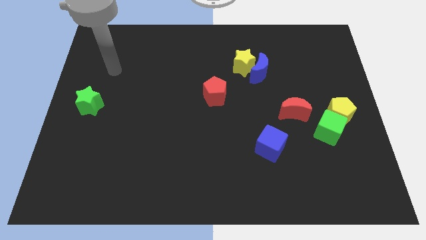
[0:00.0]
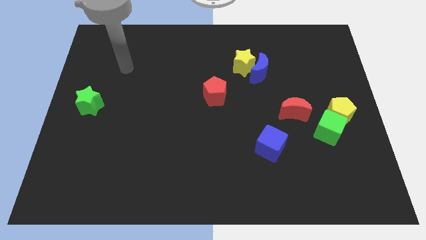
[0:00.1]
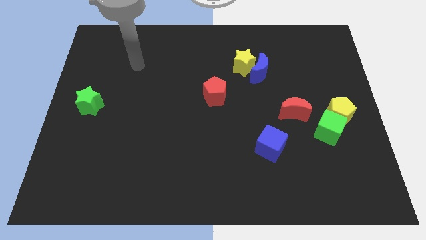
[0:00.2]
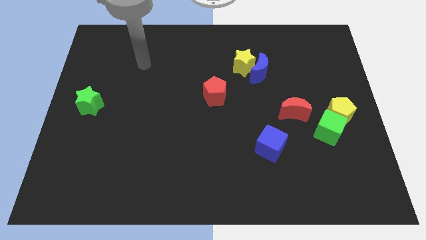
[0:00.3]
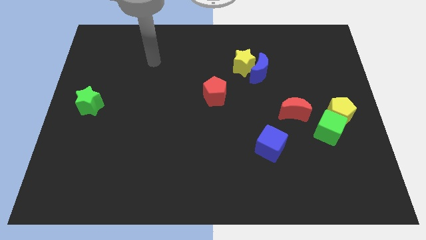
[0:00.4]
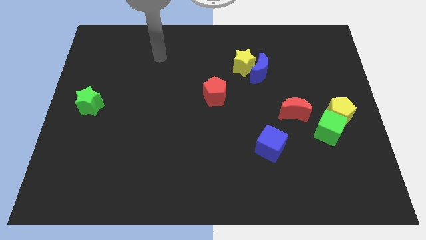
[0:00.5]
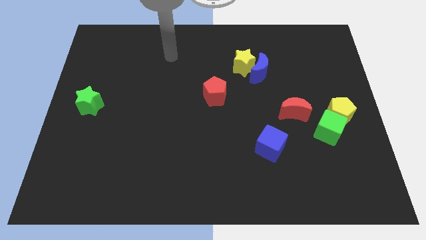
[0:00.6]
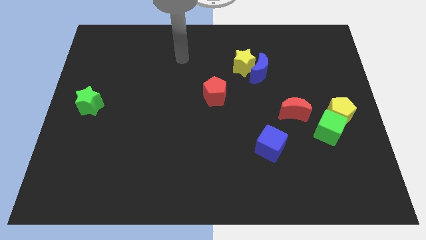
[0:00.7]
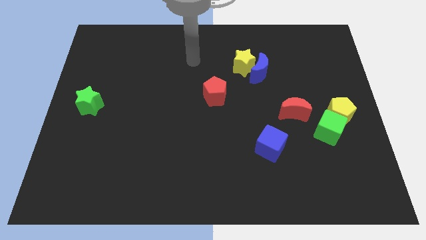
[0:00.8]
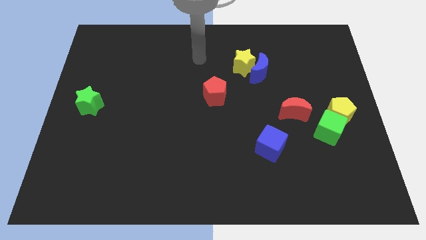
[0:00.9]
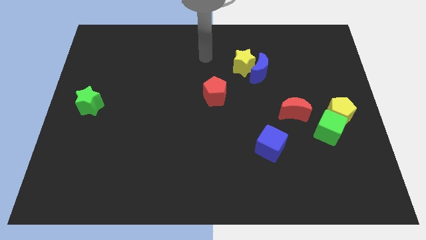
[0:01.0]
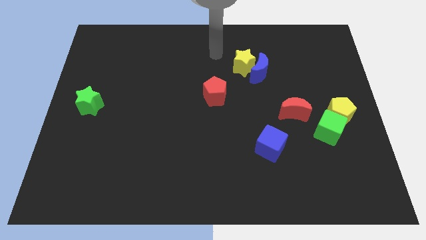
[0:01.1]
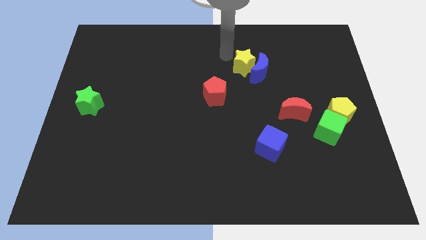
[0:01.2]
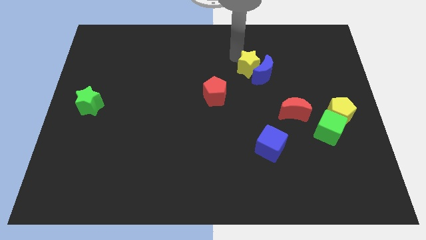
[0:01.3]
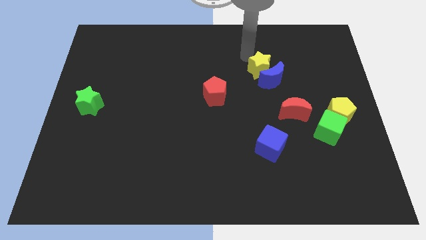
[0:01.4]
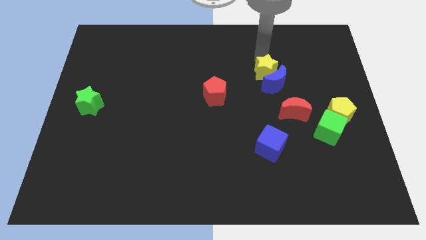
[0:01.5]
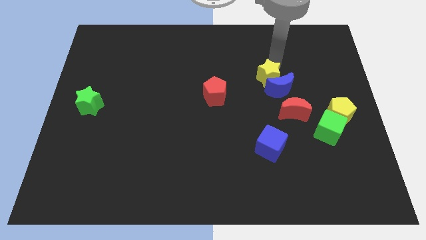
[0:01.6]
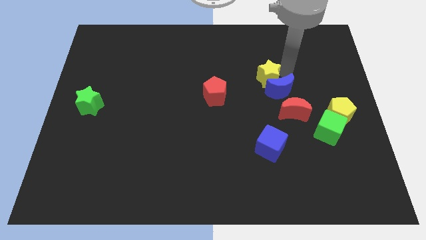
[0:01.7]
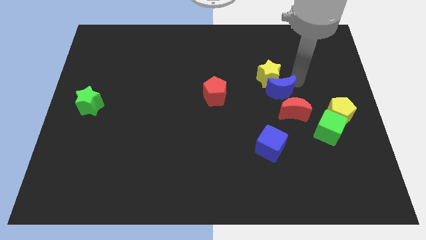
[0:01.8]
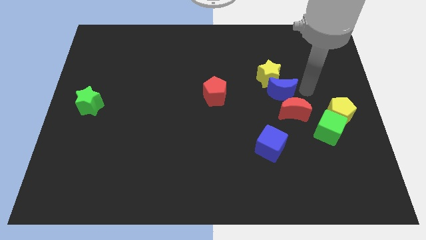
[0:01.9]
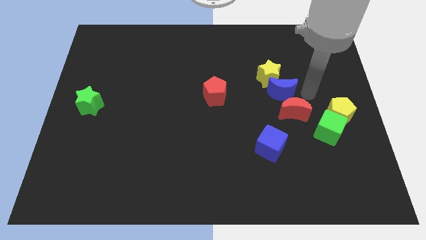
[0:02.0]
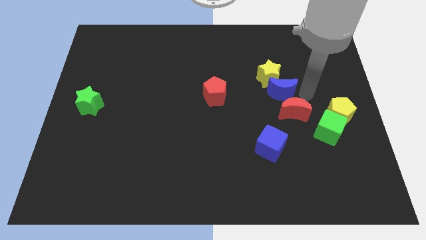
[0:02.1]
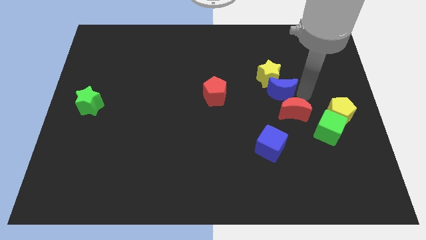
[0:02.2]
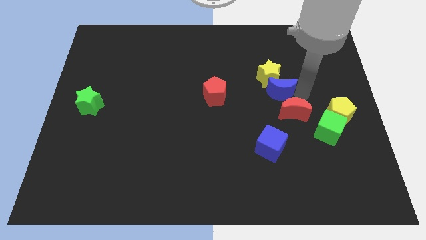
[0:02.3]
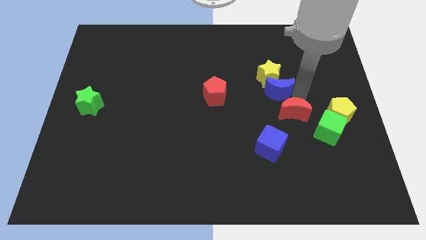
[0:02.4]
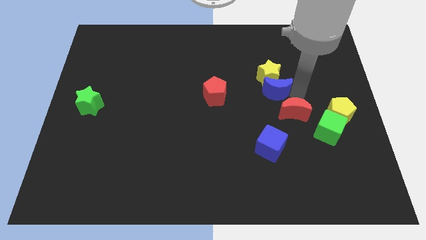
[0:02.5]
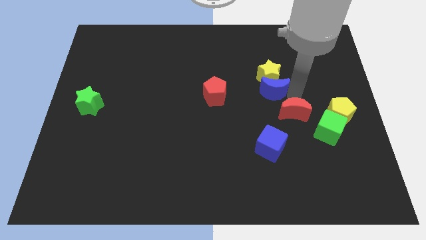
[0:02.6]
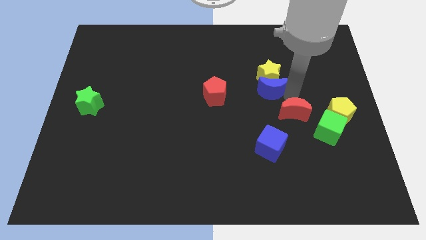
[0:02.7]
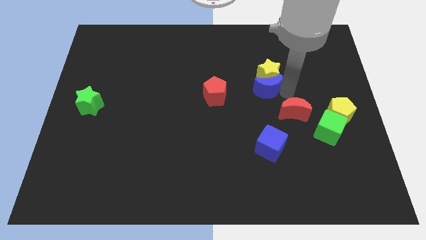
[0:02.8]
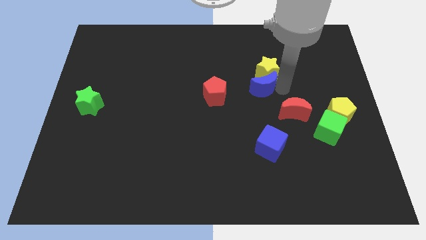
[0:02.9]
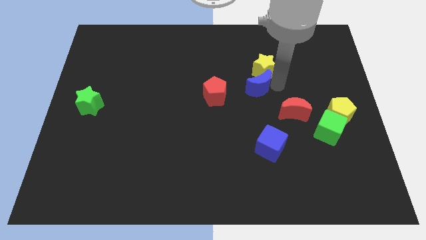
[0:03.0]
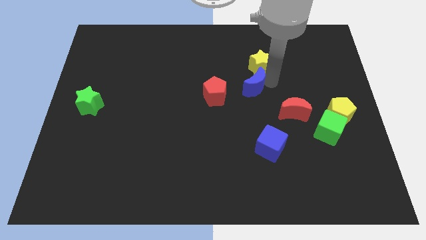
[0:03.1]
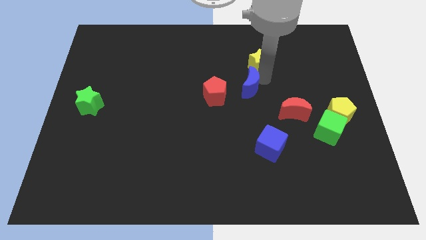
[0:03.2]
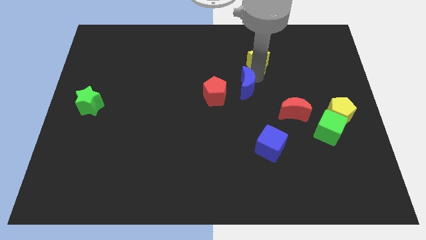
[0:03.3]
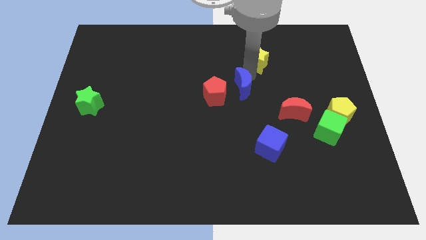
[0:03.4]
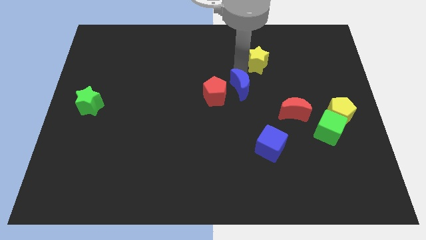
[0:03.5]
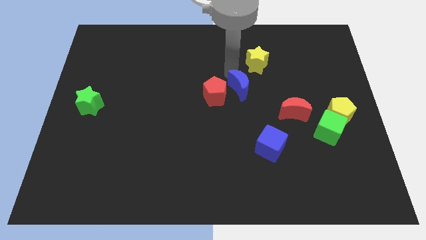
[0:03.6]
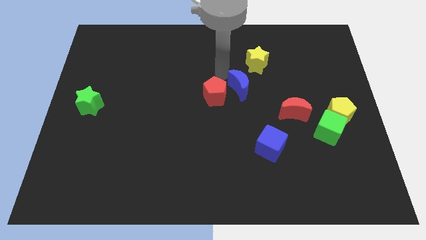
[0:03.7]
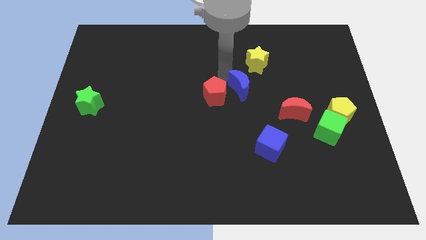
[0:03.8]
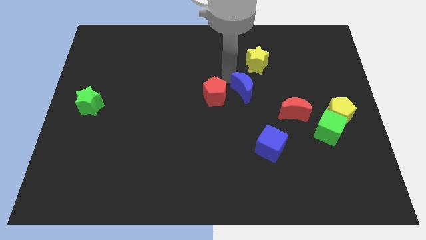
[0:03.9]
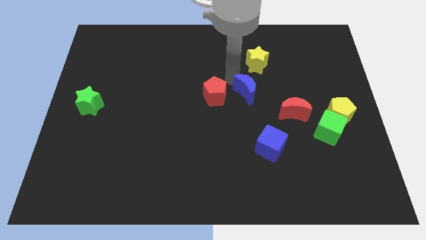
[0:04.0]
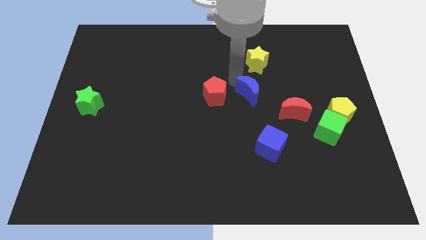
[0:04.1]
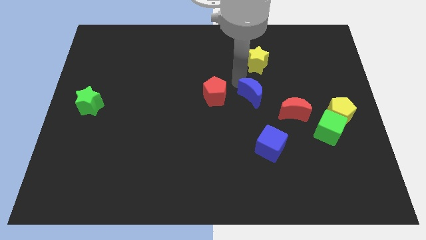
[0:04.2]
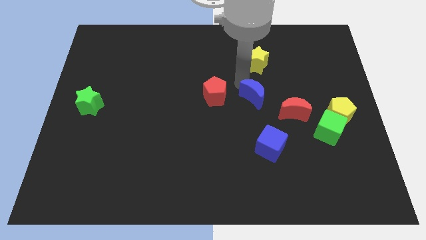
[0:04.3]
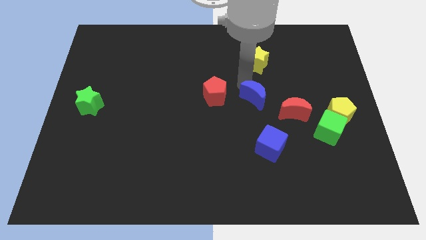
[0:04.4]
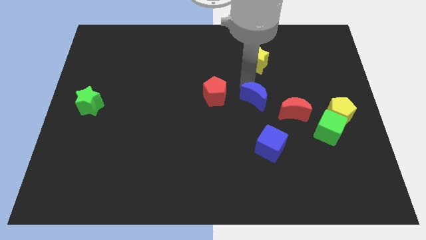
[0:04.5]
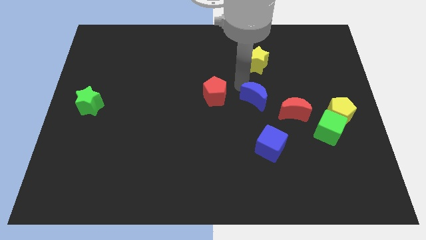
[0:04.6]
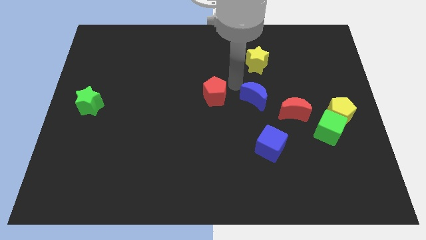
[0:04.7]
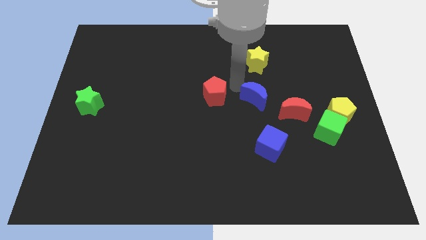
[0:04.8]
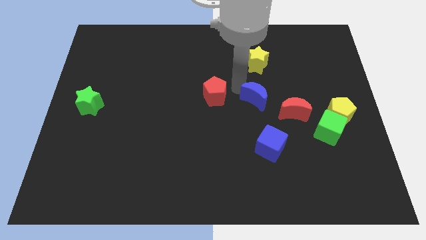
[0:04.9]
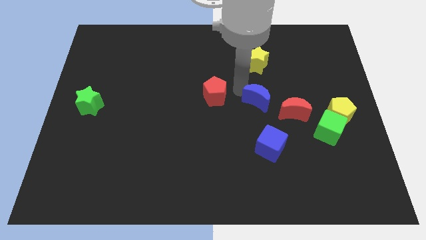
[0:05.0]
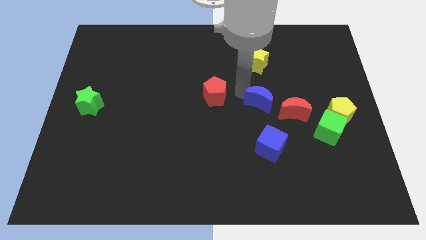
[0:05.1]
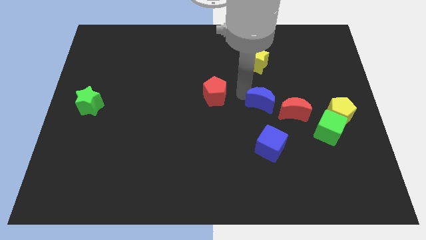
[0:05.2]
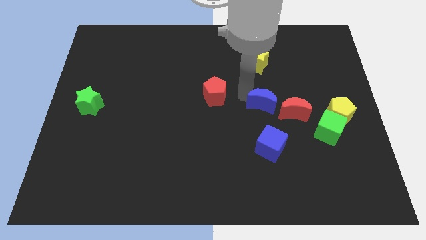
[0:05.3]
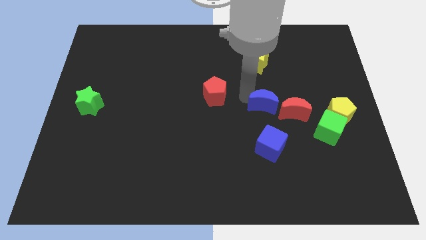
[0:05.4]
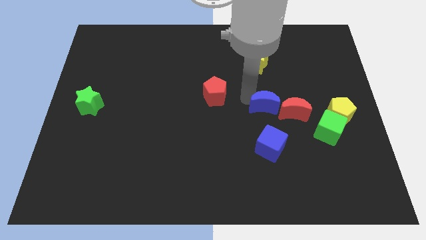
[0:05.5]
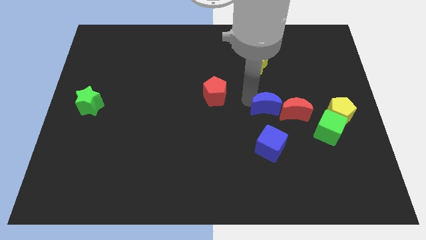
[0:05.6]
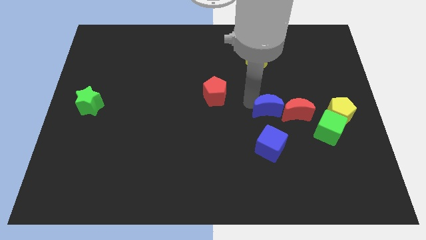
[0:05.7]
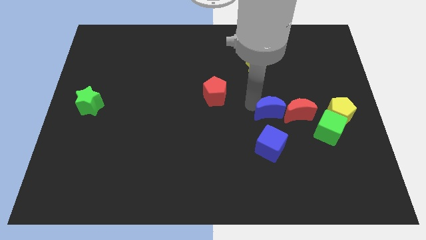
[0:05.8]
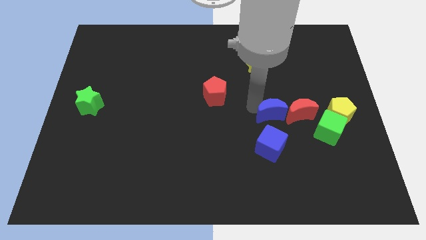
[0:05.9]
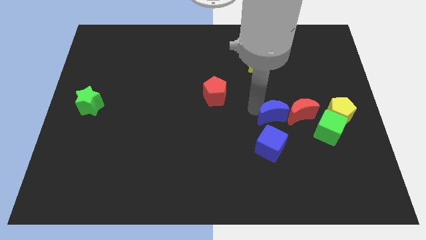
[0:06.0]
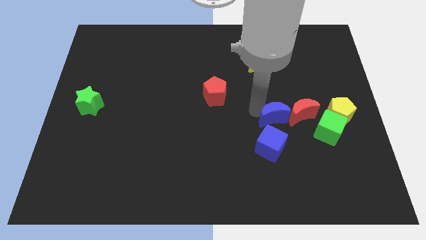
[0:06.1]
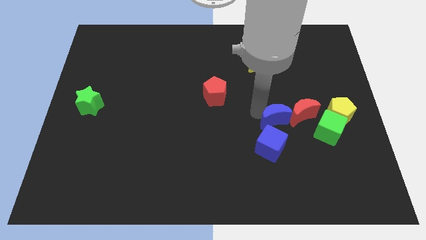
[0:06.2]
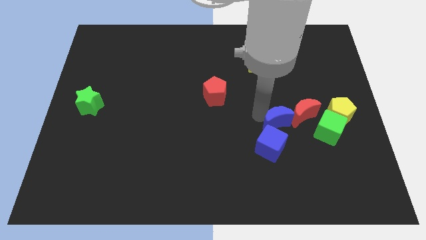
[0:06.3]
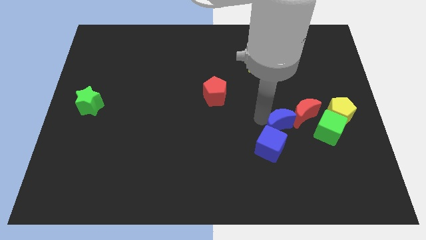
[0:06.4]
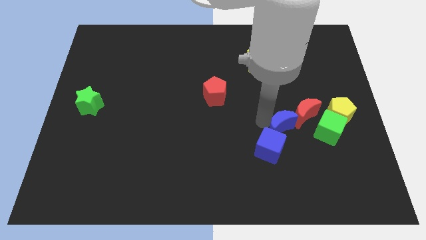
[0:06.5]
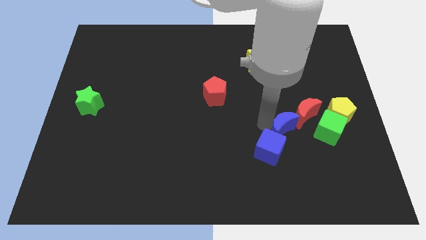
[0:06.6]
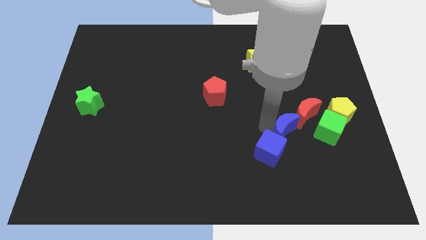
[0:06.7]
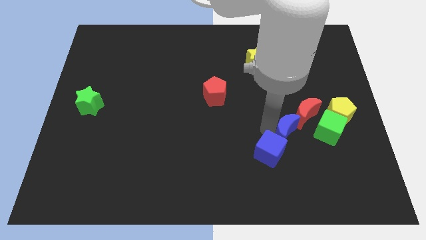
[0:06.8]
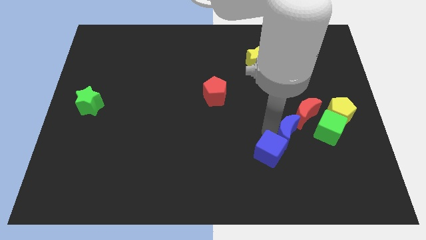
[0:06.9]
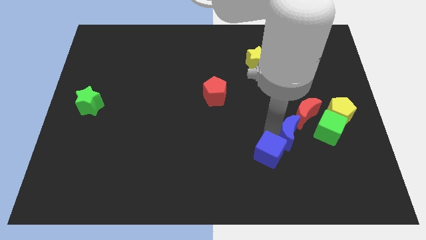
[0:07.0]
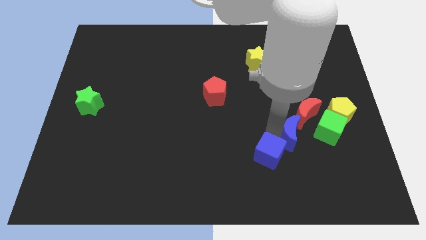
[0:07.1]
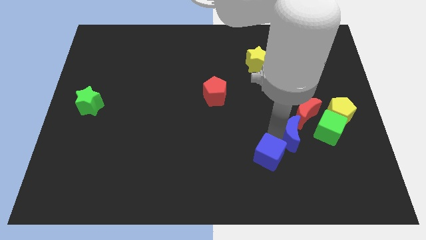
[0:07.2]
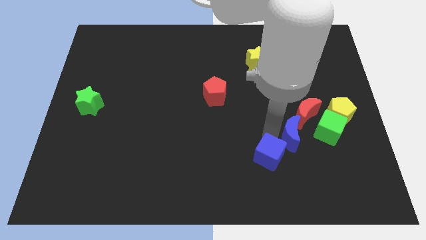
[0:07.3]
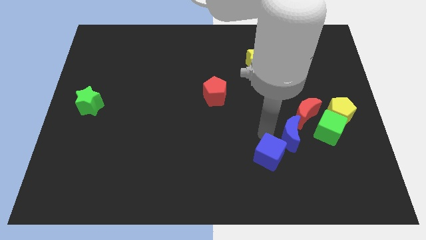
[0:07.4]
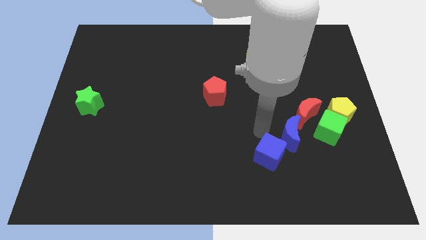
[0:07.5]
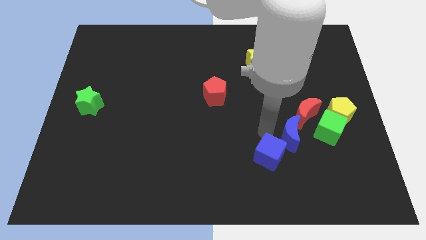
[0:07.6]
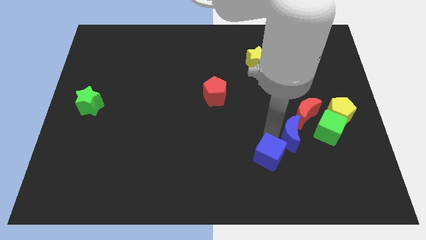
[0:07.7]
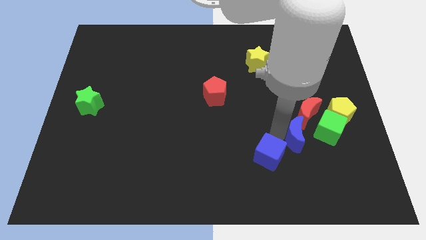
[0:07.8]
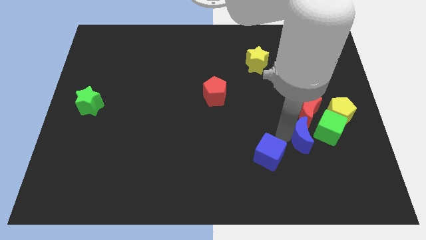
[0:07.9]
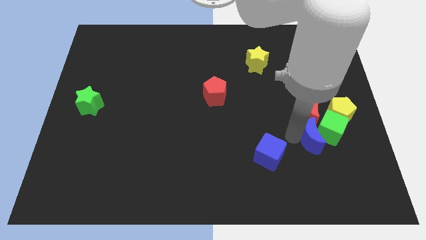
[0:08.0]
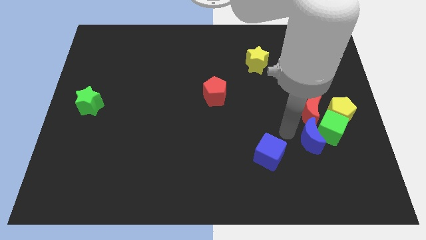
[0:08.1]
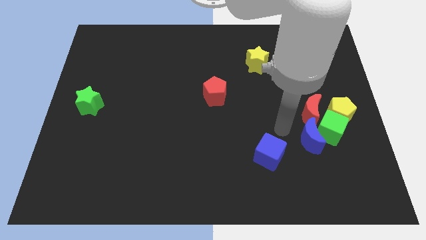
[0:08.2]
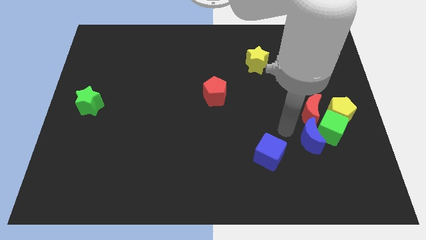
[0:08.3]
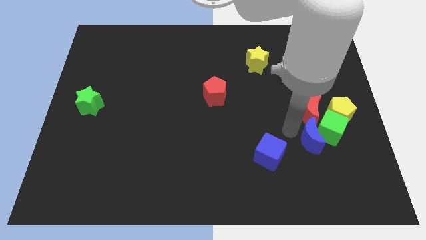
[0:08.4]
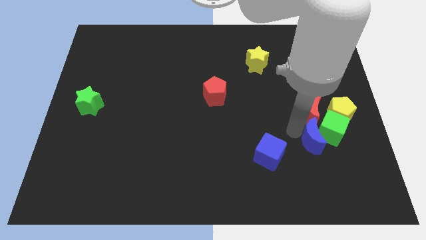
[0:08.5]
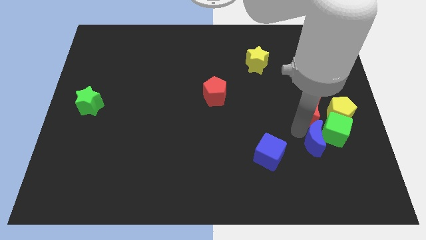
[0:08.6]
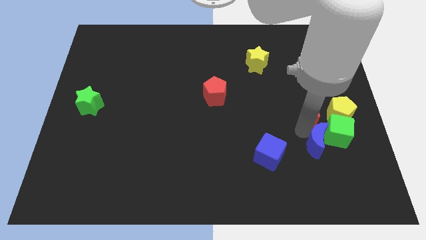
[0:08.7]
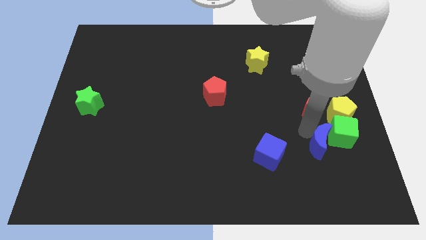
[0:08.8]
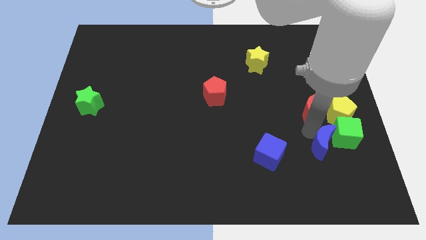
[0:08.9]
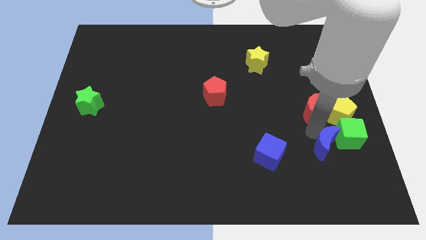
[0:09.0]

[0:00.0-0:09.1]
move the blue moon to the bottom of the yellow pentagon
